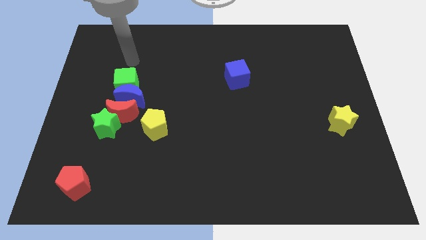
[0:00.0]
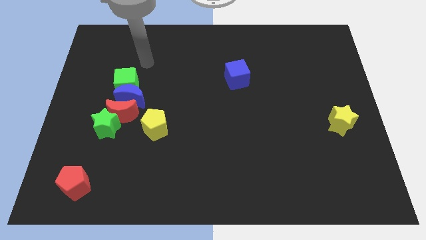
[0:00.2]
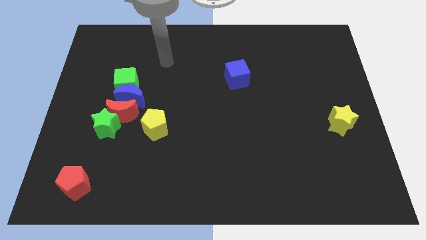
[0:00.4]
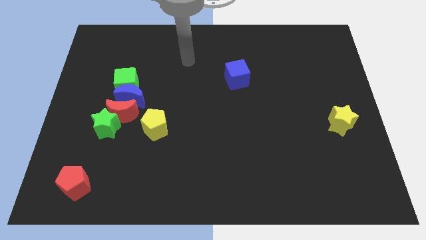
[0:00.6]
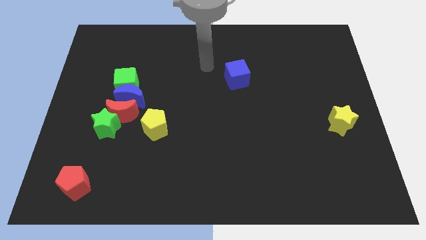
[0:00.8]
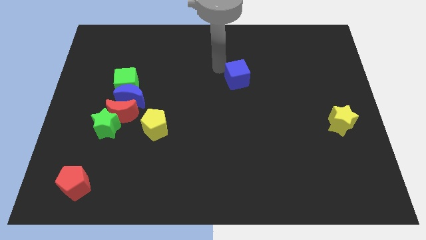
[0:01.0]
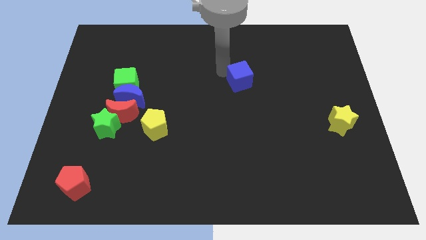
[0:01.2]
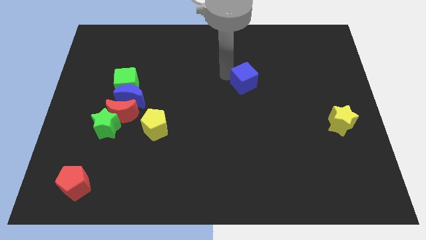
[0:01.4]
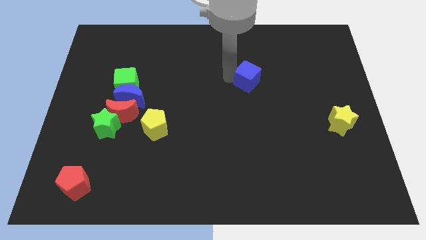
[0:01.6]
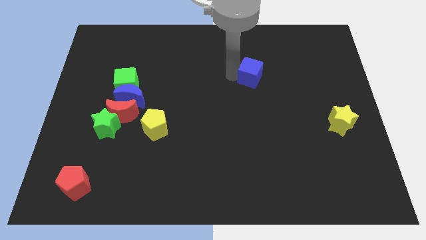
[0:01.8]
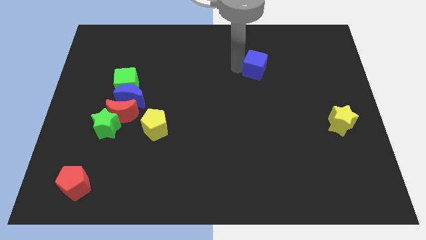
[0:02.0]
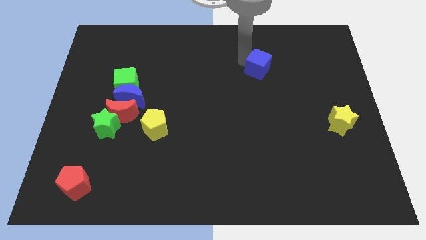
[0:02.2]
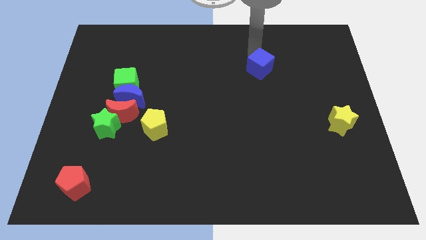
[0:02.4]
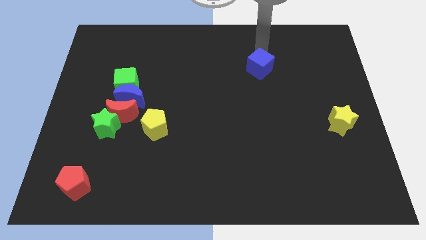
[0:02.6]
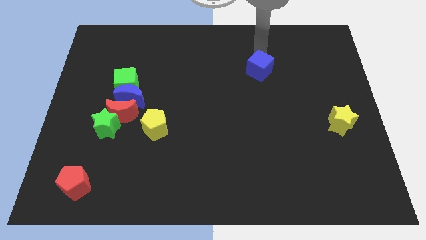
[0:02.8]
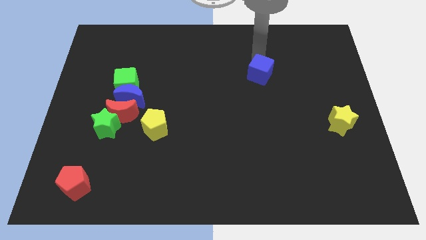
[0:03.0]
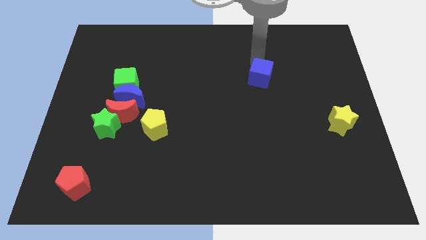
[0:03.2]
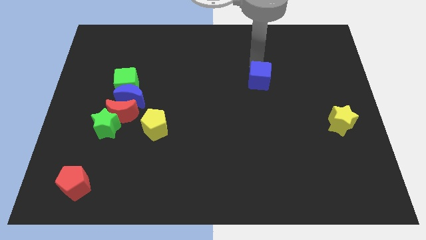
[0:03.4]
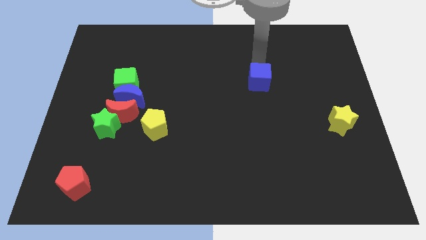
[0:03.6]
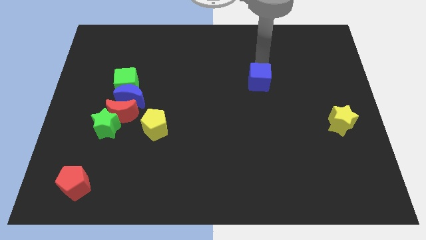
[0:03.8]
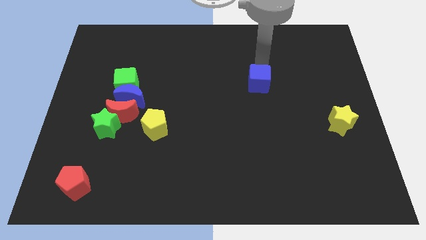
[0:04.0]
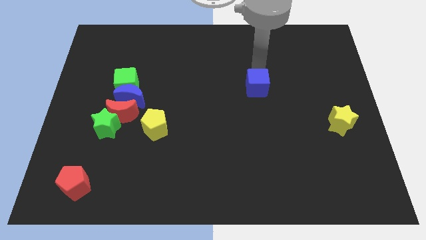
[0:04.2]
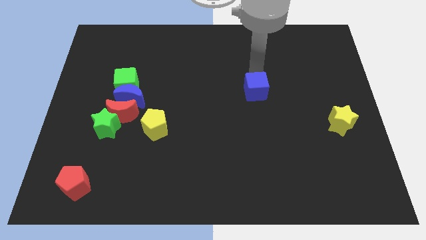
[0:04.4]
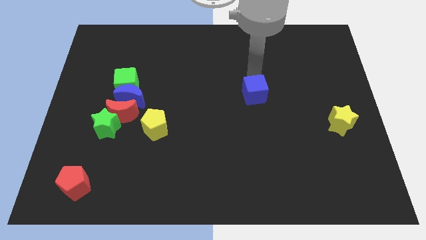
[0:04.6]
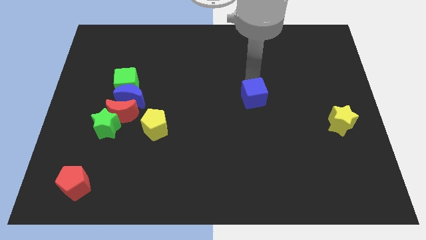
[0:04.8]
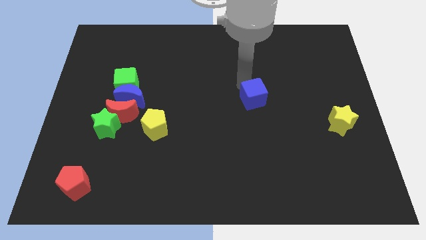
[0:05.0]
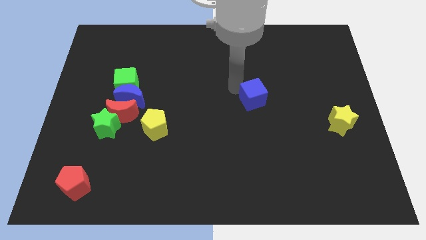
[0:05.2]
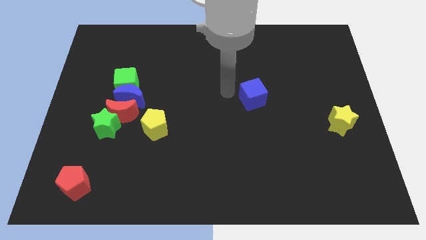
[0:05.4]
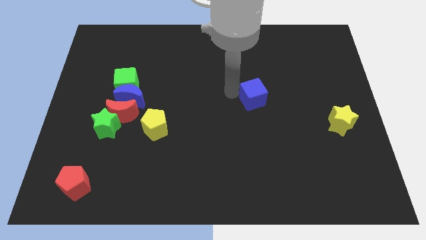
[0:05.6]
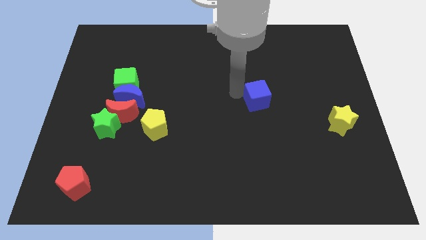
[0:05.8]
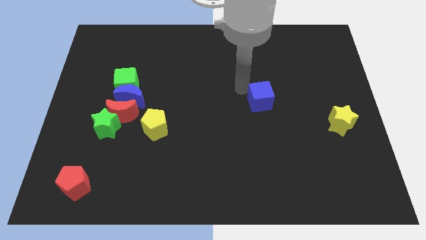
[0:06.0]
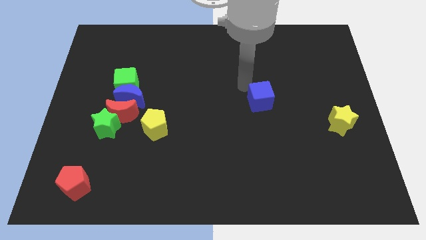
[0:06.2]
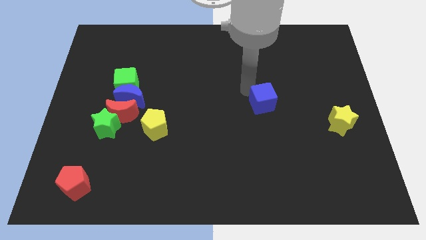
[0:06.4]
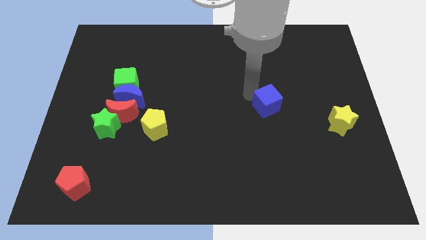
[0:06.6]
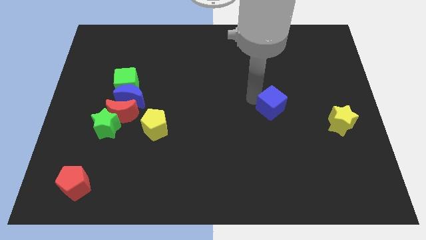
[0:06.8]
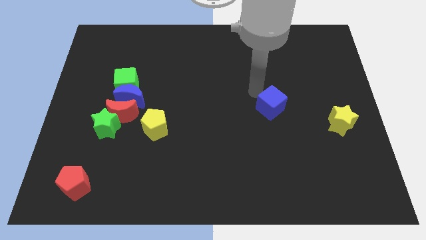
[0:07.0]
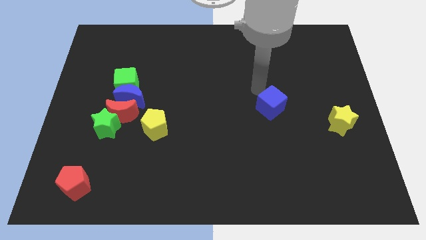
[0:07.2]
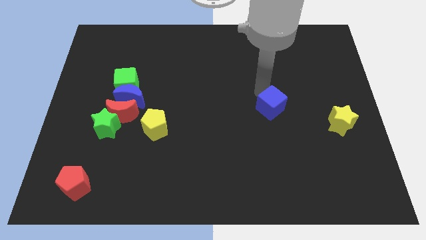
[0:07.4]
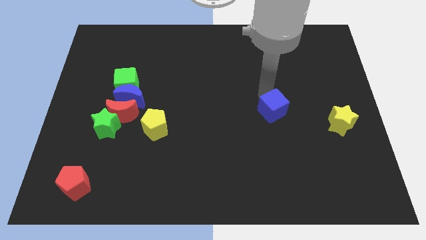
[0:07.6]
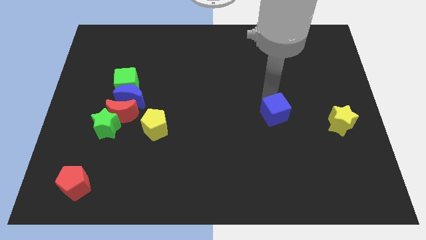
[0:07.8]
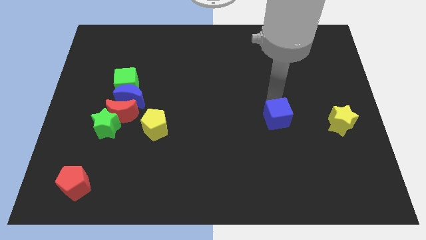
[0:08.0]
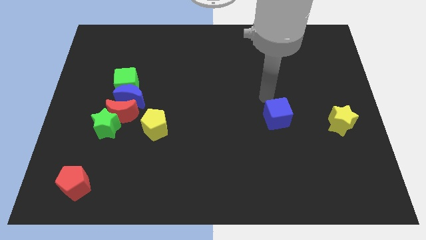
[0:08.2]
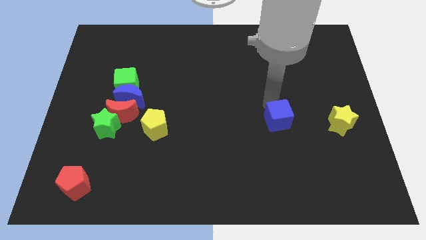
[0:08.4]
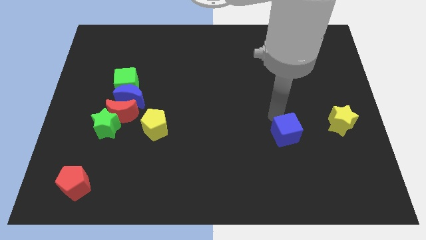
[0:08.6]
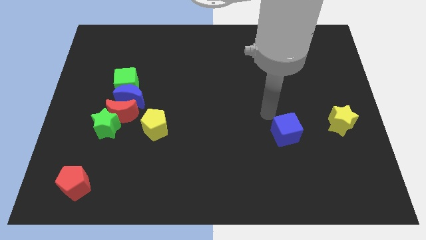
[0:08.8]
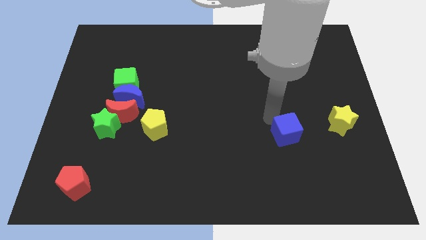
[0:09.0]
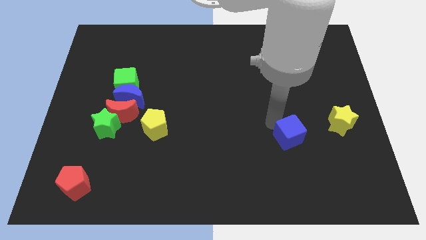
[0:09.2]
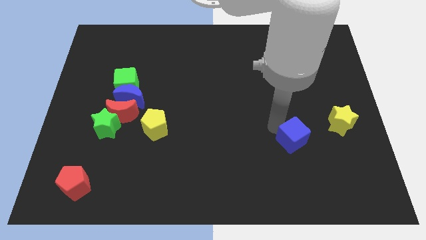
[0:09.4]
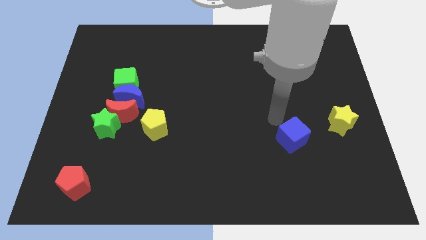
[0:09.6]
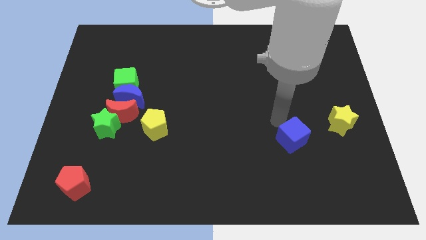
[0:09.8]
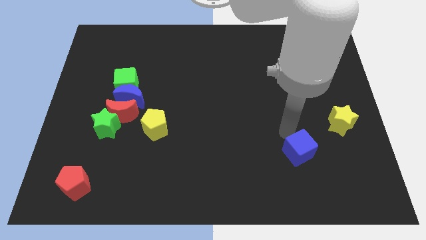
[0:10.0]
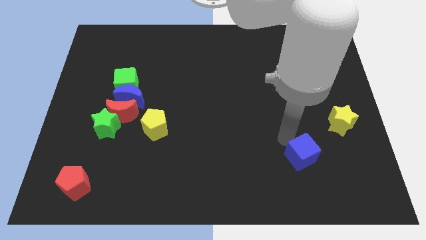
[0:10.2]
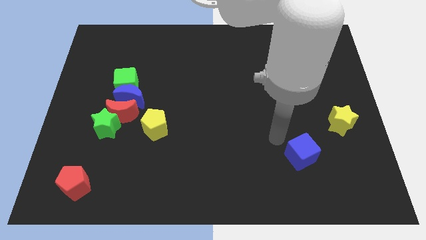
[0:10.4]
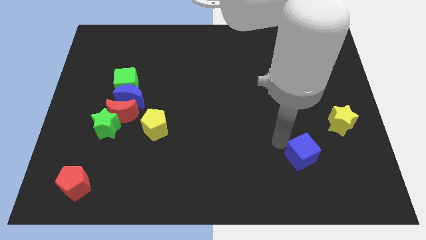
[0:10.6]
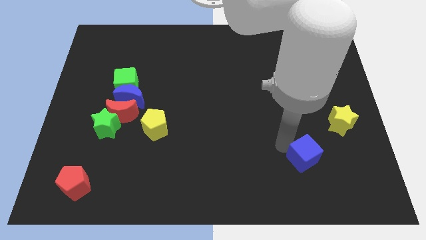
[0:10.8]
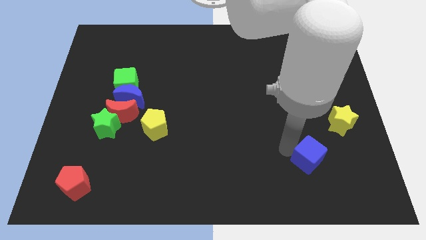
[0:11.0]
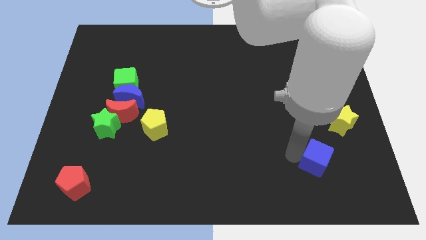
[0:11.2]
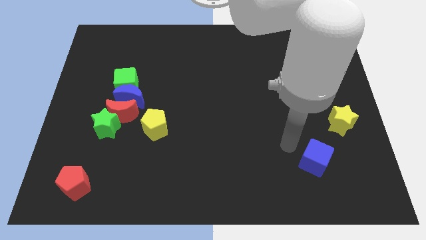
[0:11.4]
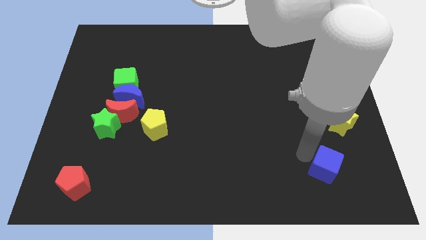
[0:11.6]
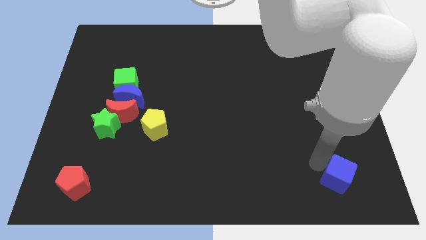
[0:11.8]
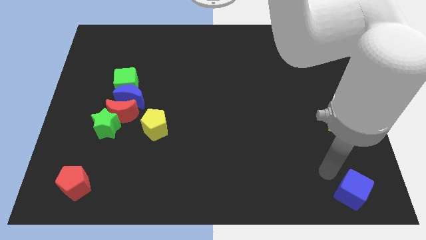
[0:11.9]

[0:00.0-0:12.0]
move the blue cube to the bottom right corner
